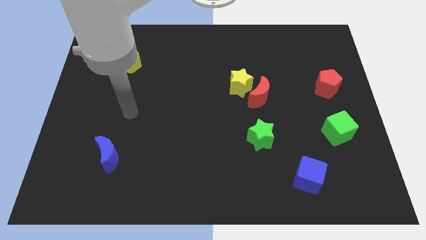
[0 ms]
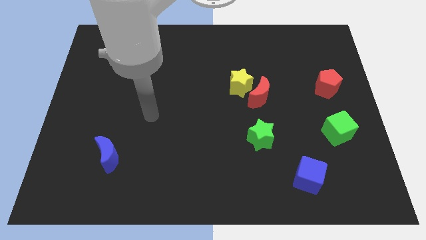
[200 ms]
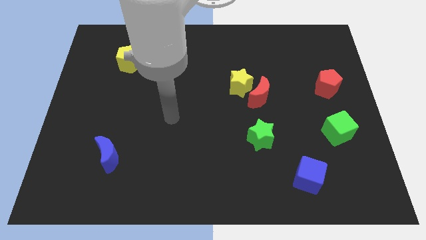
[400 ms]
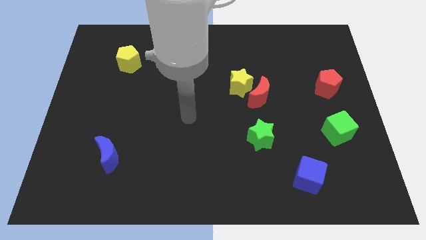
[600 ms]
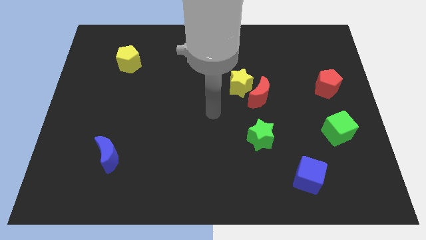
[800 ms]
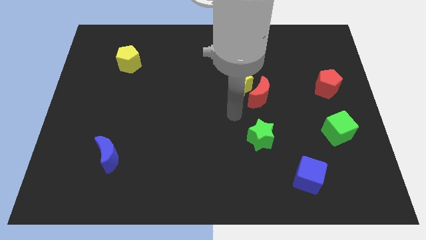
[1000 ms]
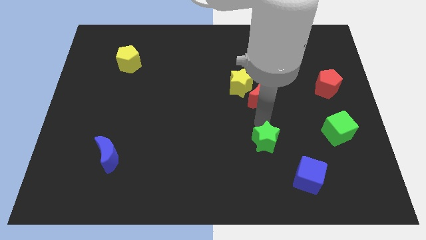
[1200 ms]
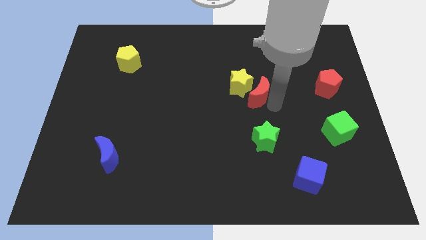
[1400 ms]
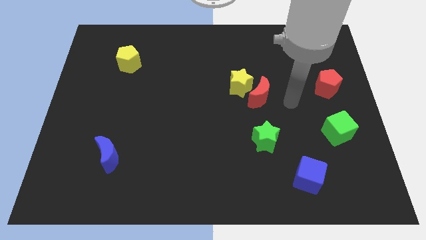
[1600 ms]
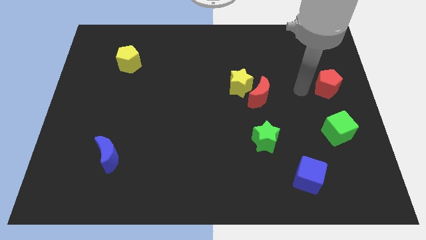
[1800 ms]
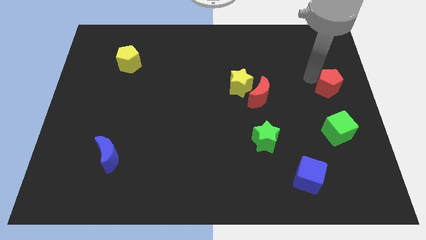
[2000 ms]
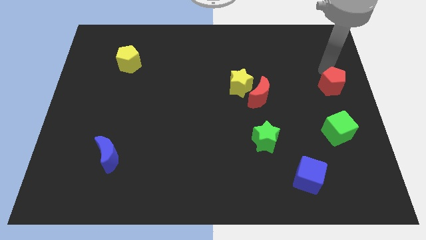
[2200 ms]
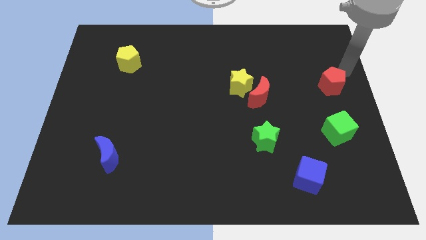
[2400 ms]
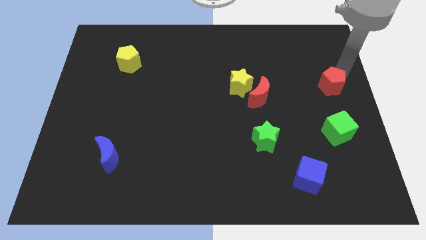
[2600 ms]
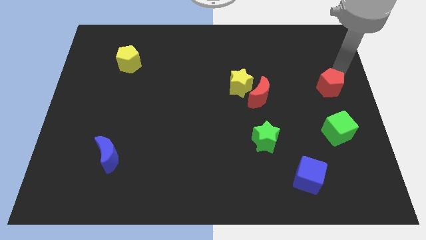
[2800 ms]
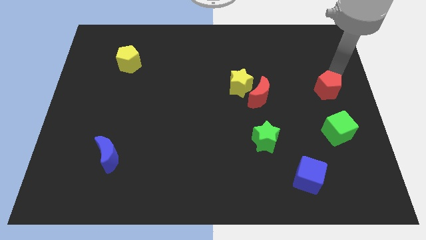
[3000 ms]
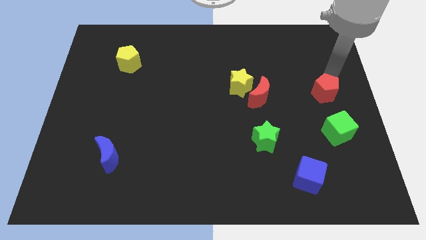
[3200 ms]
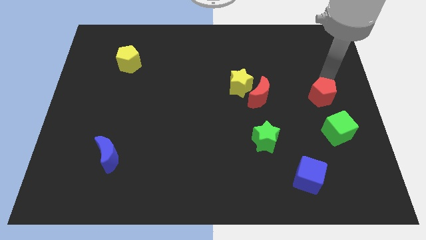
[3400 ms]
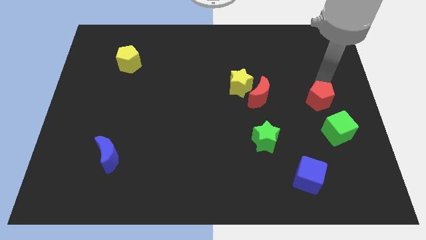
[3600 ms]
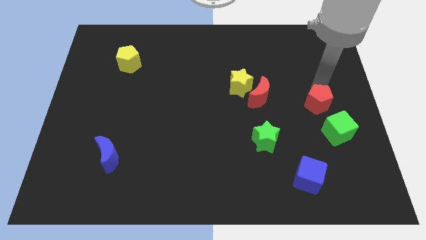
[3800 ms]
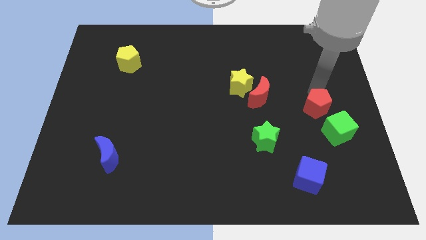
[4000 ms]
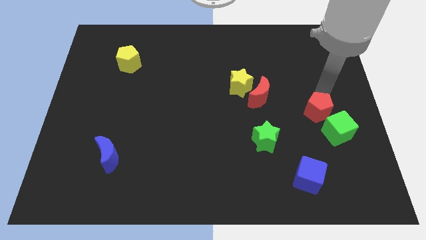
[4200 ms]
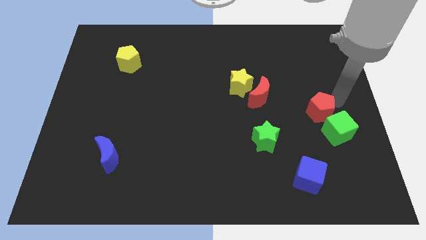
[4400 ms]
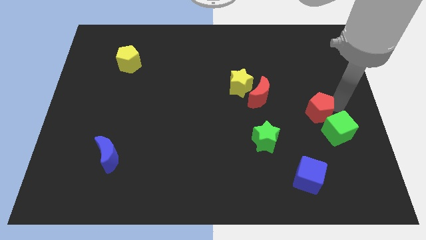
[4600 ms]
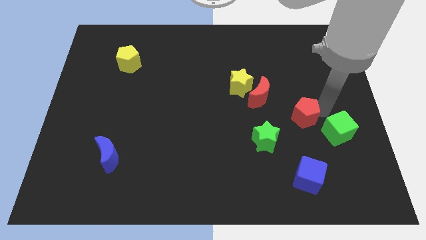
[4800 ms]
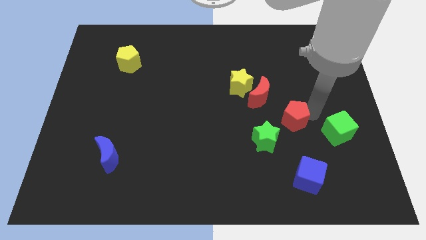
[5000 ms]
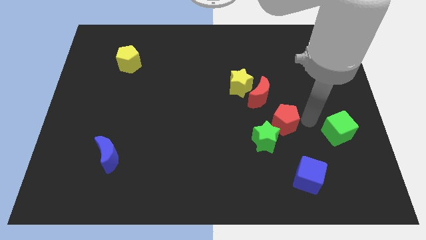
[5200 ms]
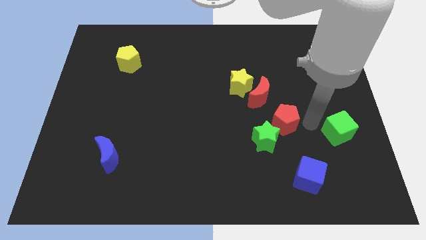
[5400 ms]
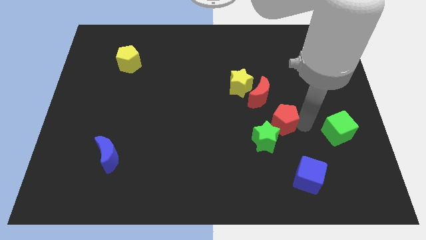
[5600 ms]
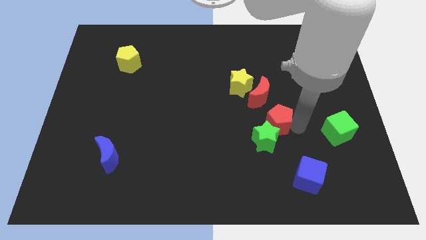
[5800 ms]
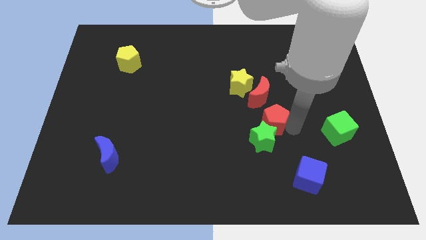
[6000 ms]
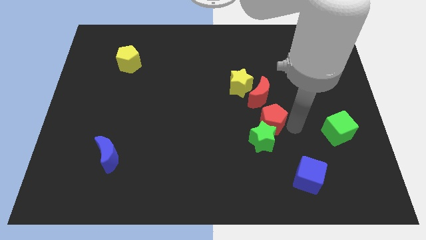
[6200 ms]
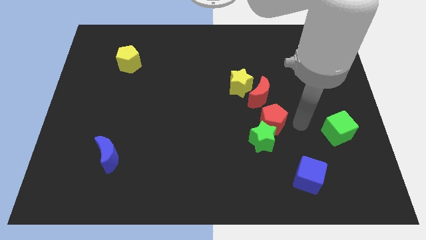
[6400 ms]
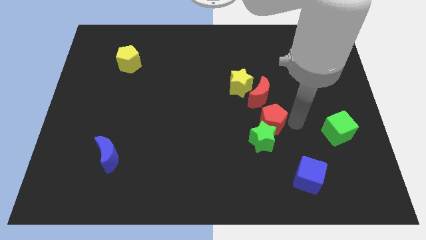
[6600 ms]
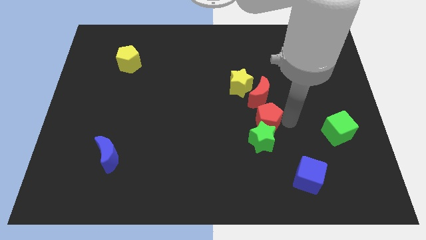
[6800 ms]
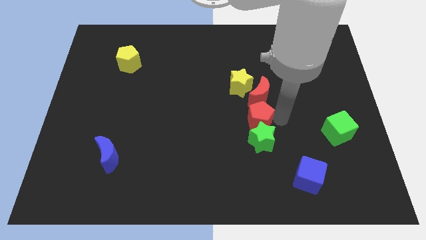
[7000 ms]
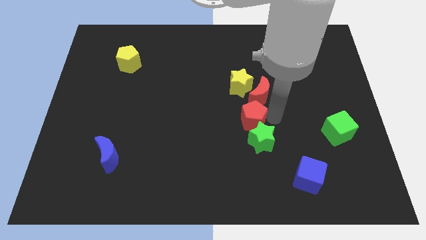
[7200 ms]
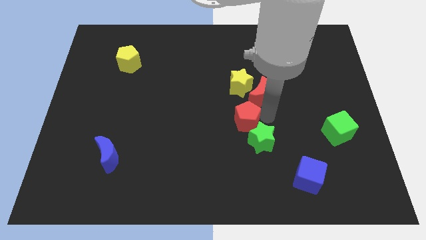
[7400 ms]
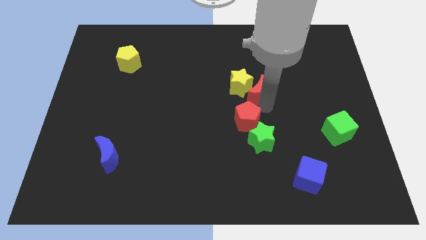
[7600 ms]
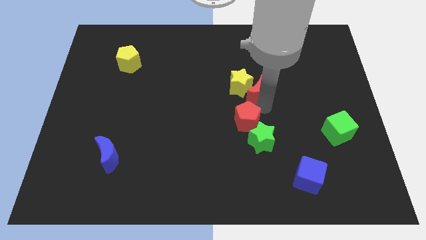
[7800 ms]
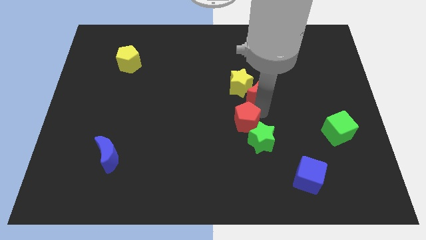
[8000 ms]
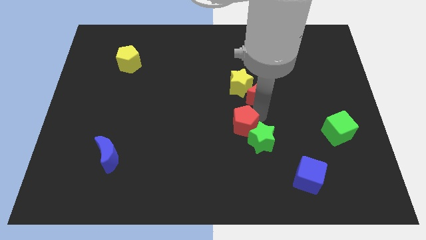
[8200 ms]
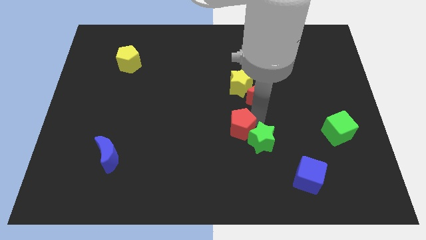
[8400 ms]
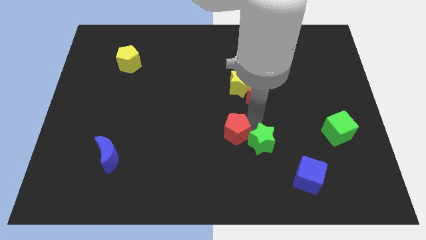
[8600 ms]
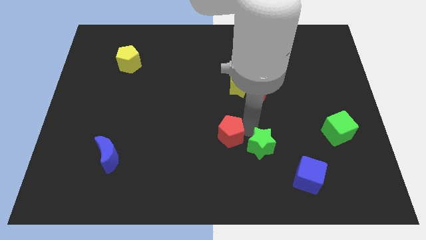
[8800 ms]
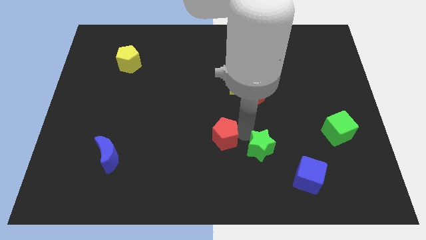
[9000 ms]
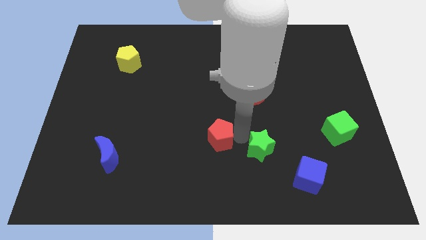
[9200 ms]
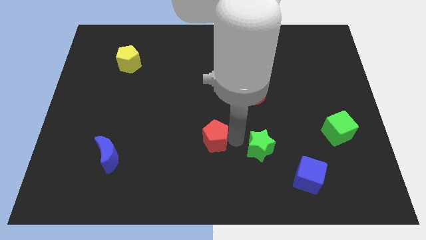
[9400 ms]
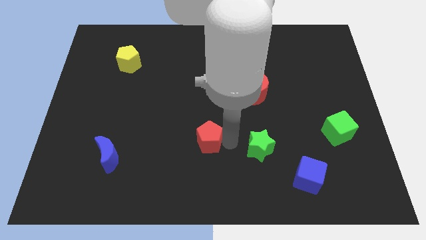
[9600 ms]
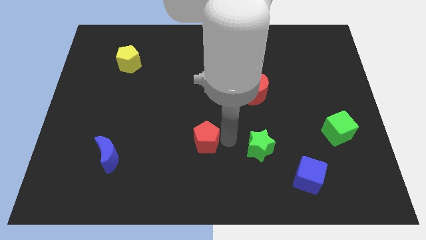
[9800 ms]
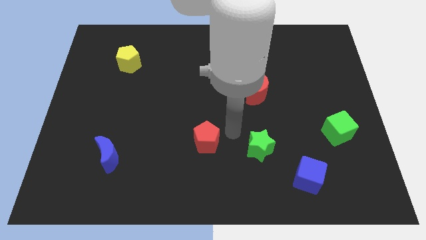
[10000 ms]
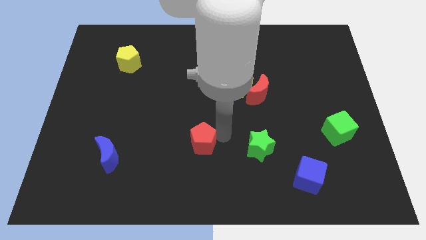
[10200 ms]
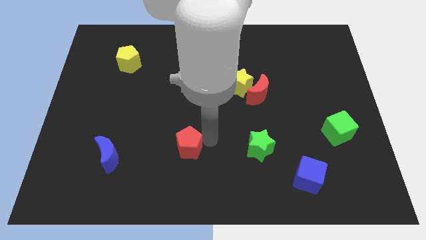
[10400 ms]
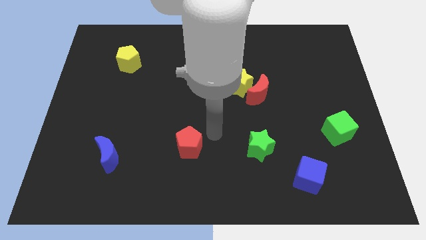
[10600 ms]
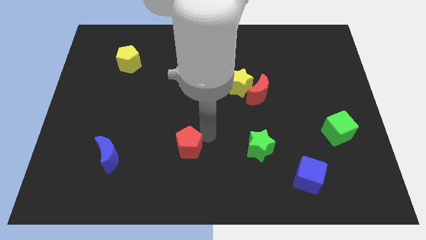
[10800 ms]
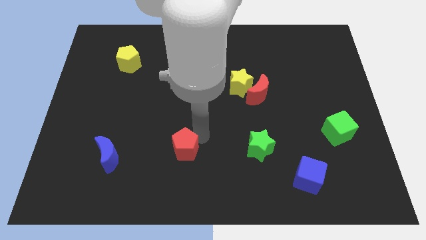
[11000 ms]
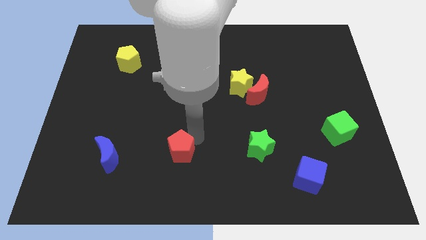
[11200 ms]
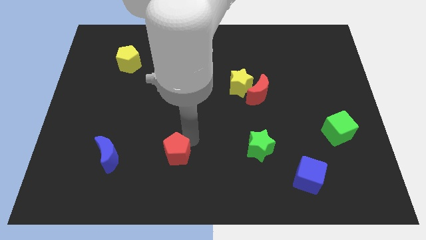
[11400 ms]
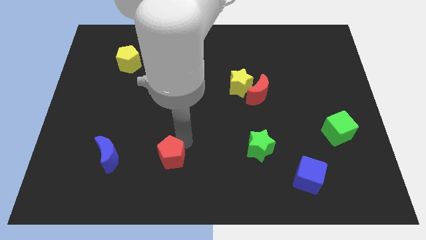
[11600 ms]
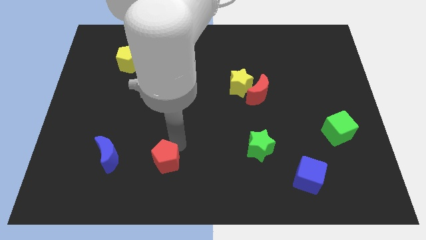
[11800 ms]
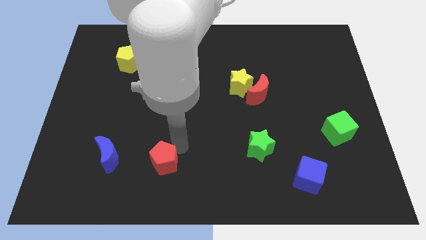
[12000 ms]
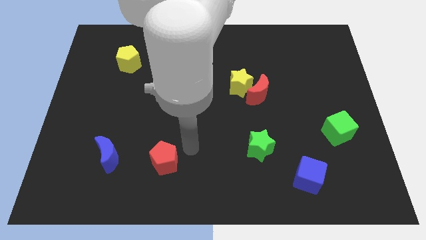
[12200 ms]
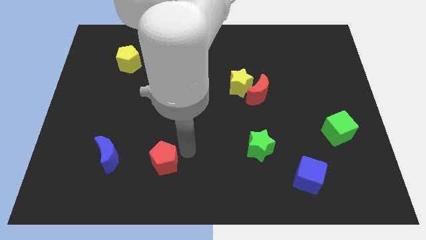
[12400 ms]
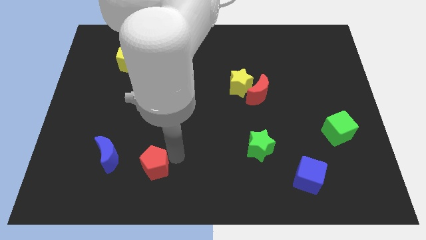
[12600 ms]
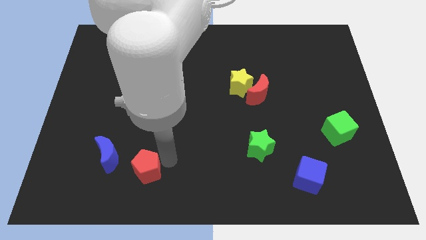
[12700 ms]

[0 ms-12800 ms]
put the red pentagon diagonally down and to the right of the blue moon

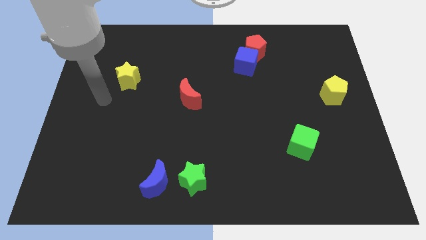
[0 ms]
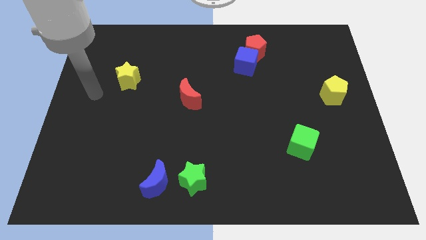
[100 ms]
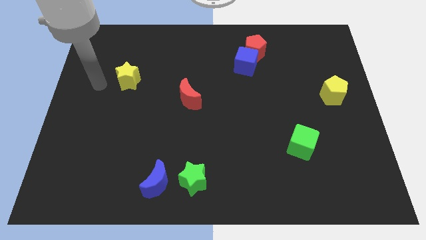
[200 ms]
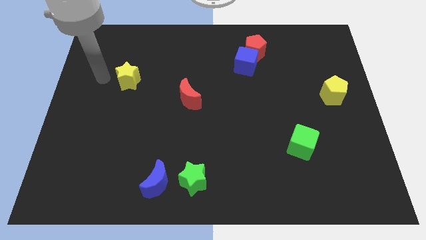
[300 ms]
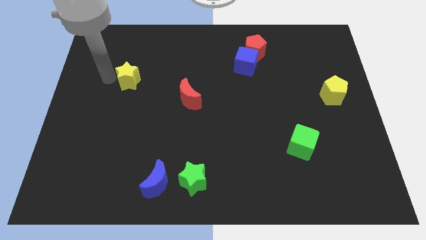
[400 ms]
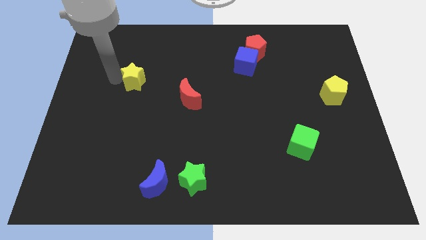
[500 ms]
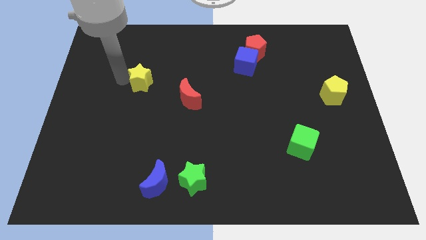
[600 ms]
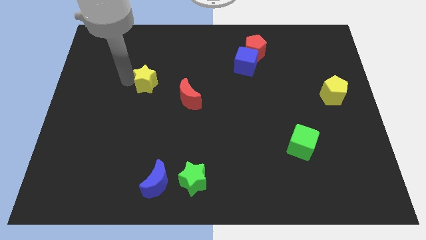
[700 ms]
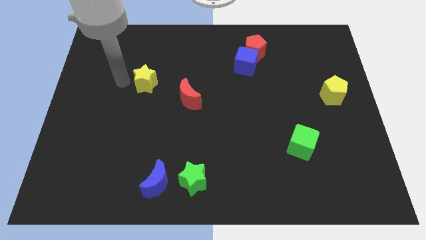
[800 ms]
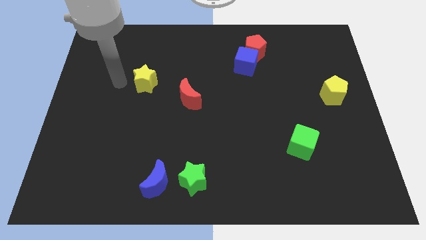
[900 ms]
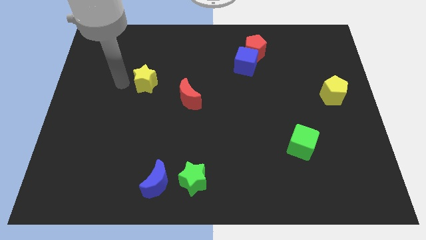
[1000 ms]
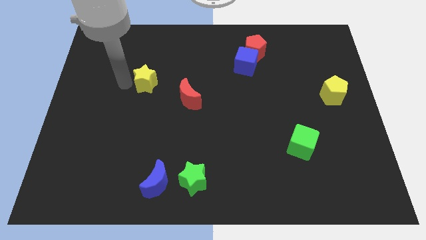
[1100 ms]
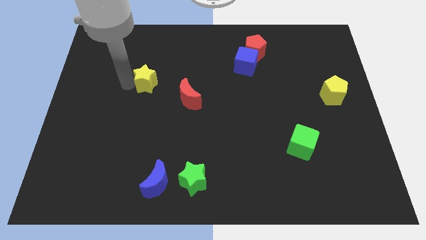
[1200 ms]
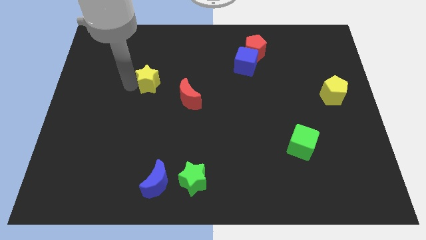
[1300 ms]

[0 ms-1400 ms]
slide the yellow star to the top left of the red moon
